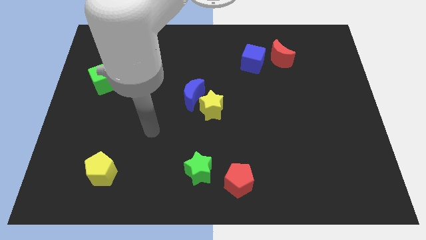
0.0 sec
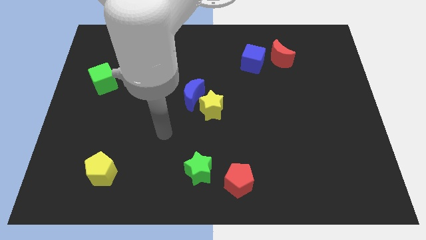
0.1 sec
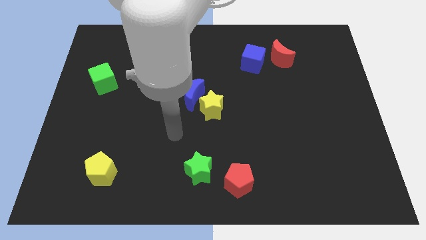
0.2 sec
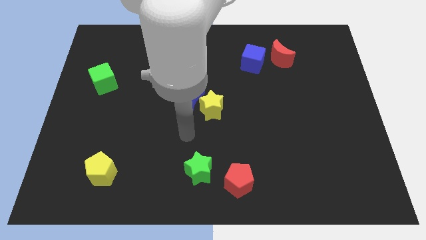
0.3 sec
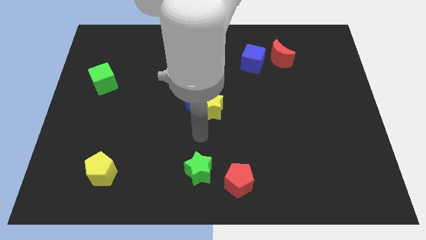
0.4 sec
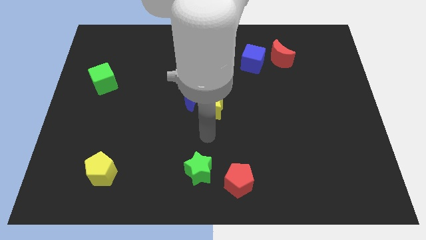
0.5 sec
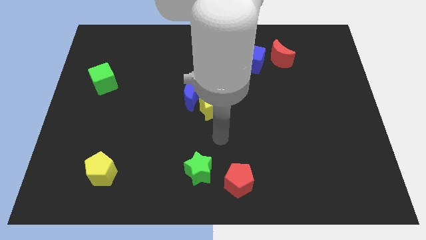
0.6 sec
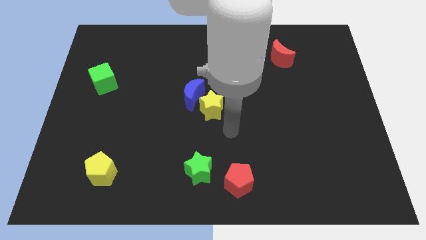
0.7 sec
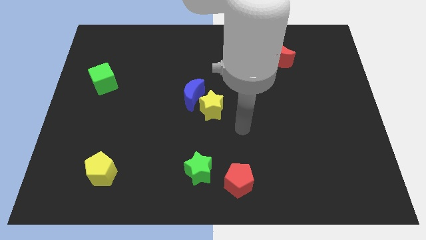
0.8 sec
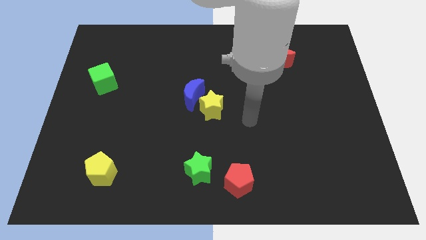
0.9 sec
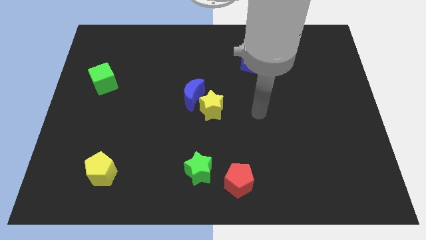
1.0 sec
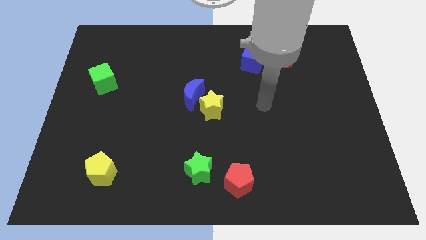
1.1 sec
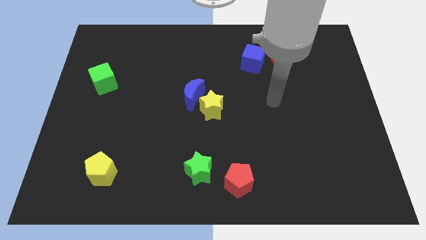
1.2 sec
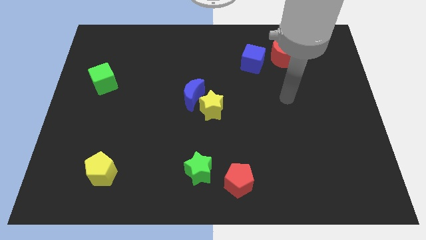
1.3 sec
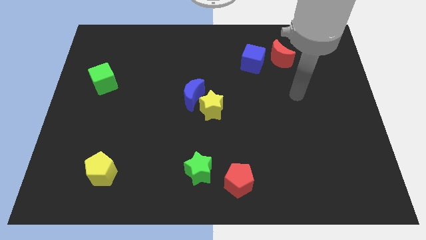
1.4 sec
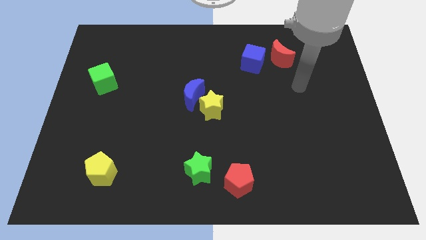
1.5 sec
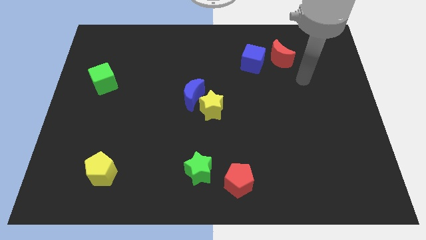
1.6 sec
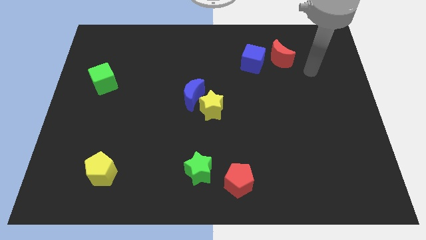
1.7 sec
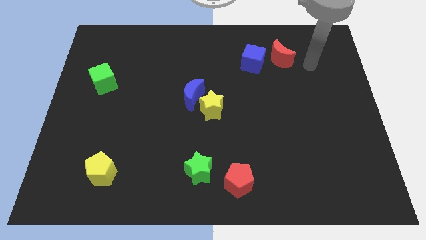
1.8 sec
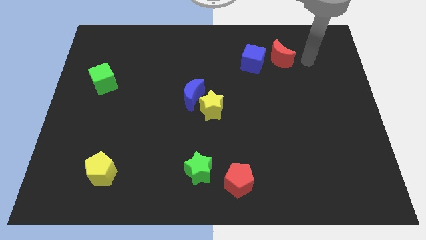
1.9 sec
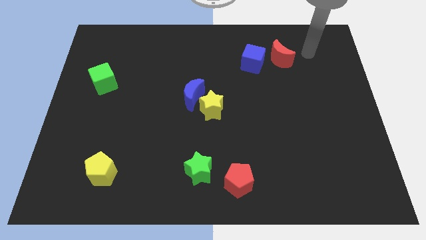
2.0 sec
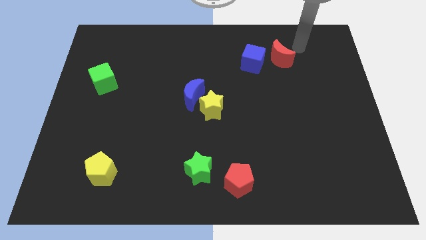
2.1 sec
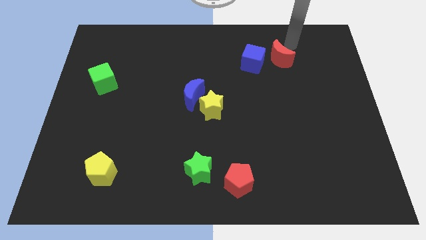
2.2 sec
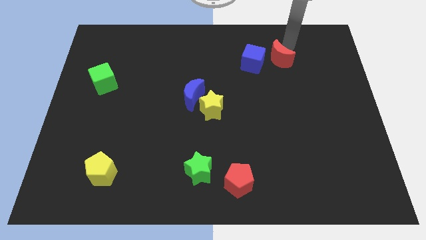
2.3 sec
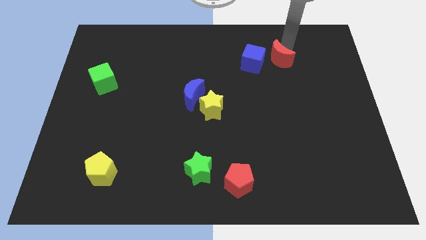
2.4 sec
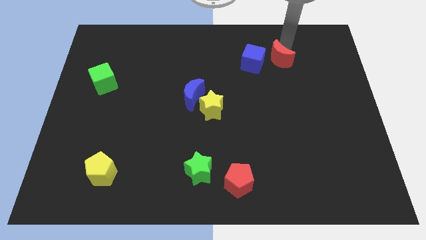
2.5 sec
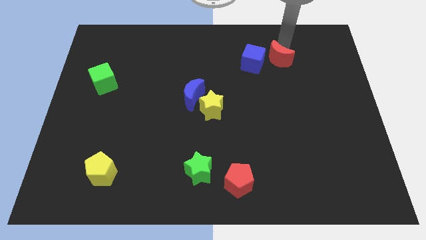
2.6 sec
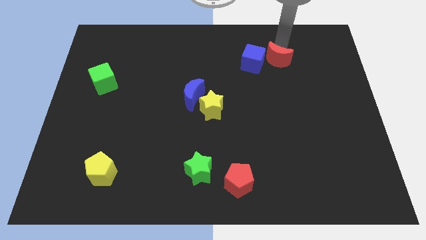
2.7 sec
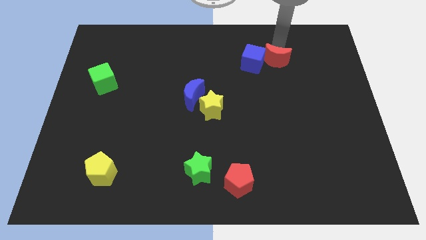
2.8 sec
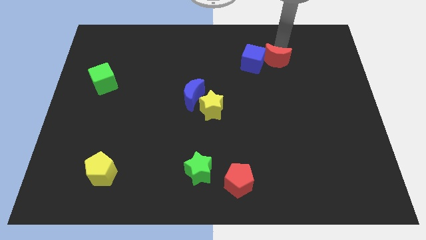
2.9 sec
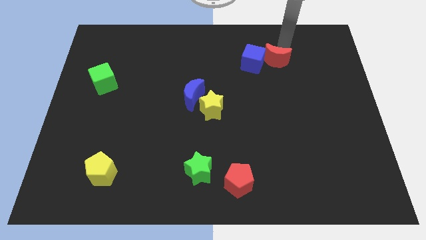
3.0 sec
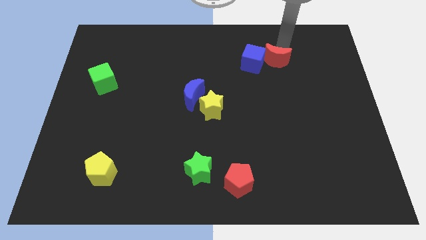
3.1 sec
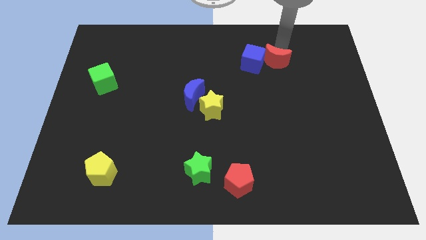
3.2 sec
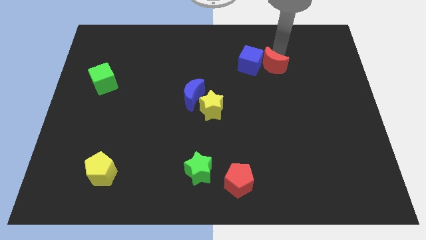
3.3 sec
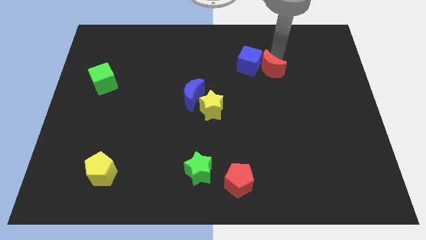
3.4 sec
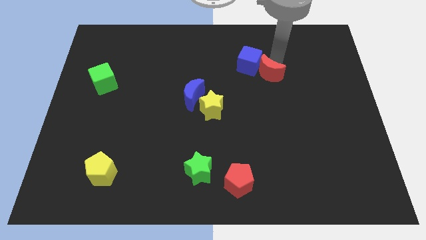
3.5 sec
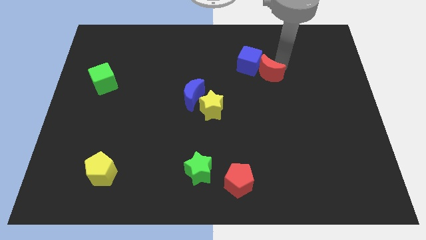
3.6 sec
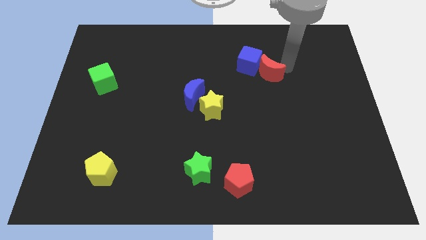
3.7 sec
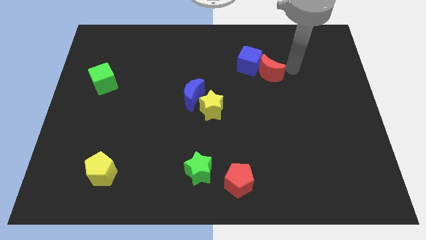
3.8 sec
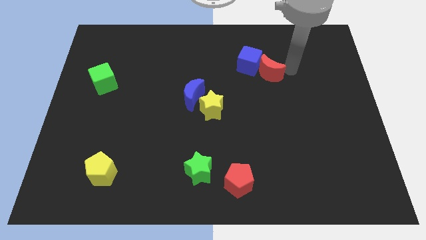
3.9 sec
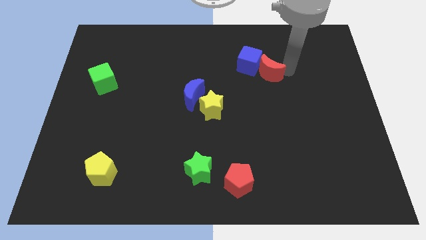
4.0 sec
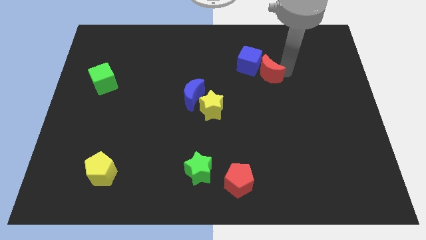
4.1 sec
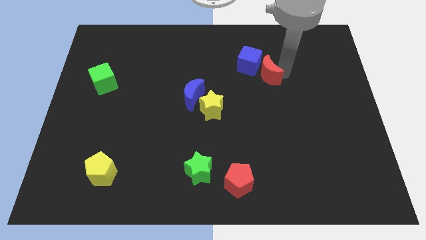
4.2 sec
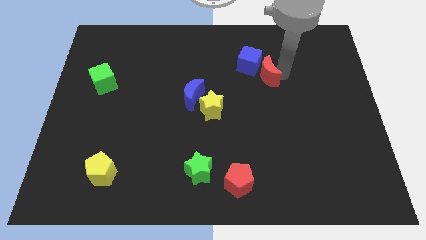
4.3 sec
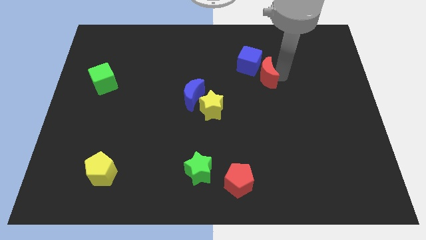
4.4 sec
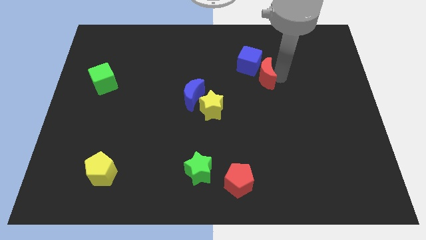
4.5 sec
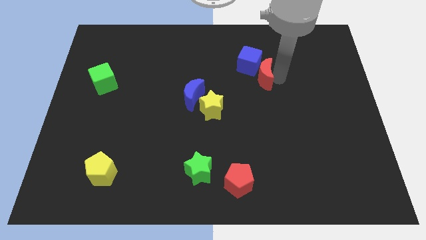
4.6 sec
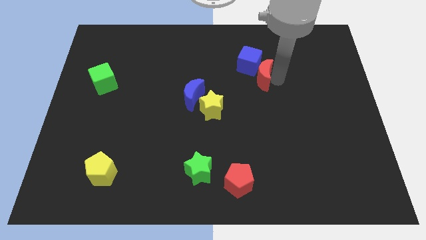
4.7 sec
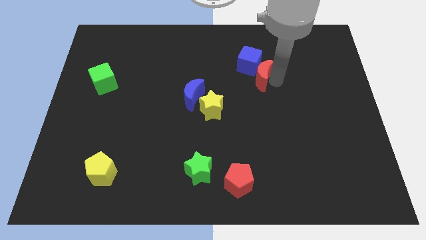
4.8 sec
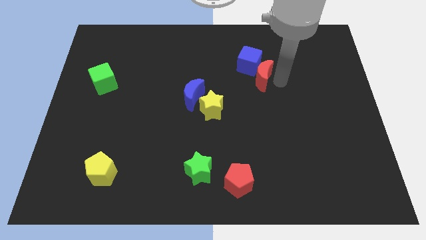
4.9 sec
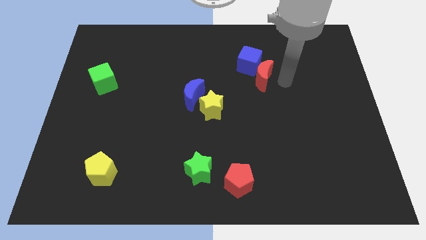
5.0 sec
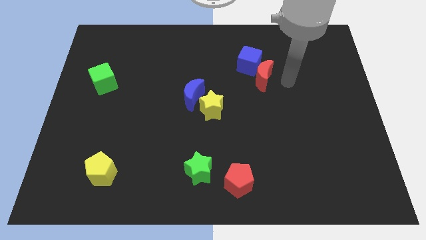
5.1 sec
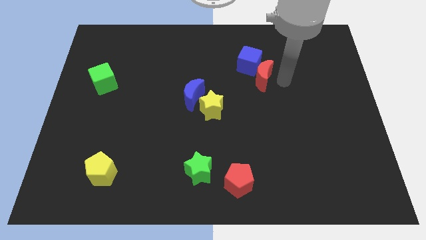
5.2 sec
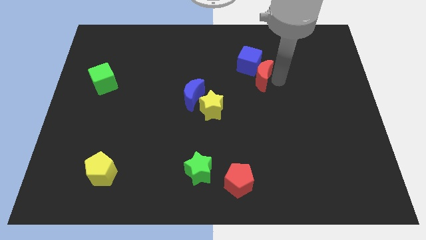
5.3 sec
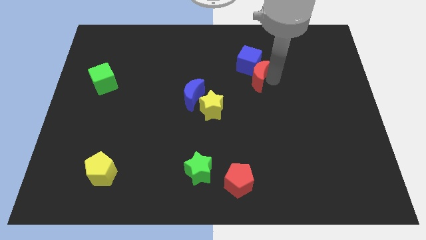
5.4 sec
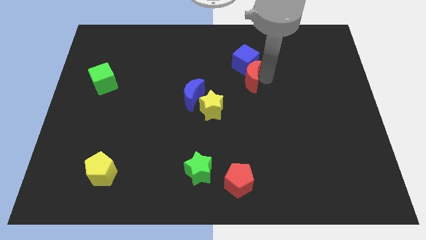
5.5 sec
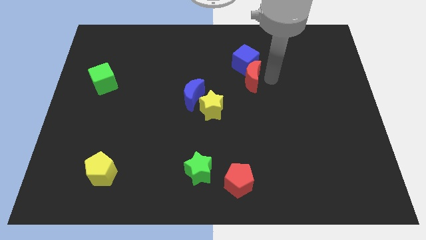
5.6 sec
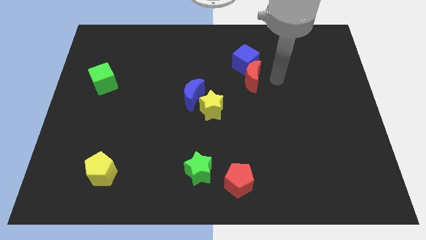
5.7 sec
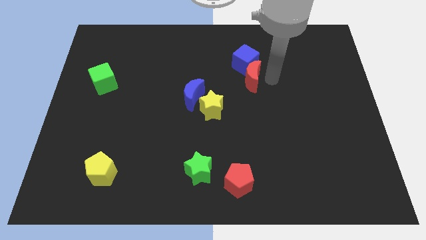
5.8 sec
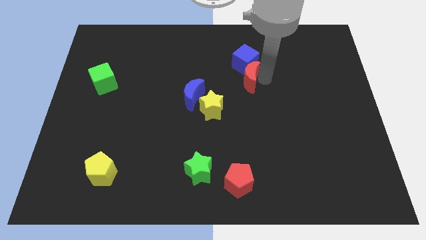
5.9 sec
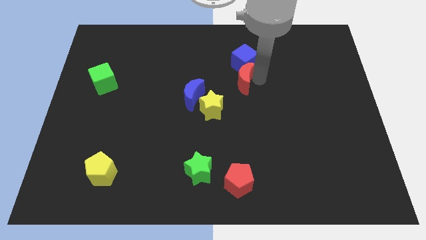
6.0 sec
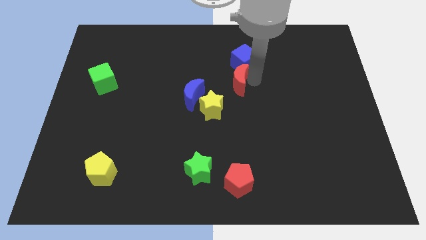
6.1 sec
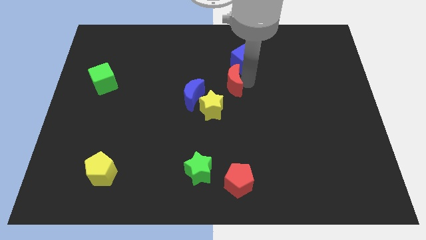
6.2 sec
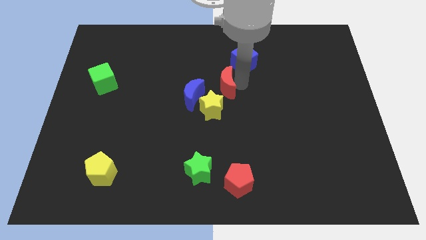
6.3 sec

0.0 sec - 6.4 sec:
put the red moon above the yellow star

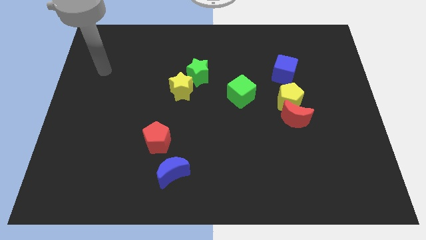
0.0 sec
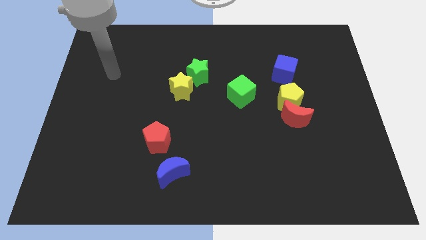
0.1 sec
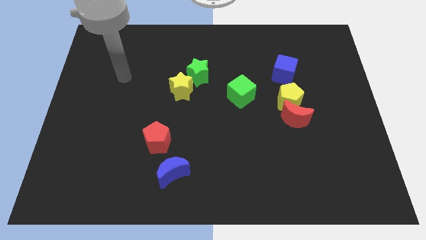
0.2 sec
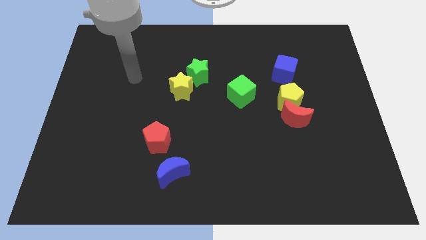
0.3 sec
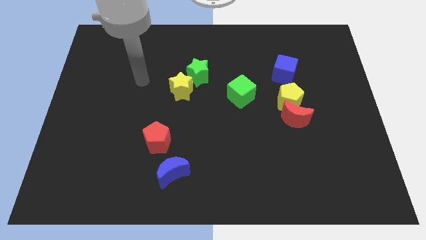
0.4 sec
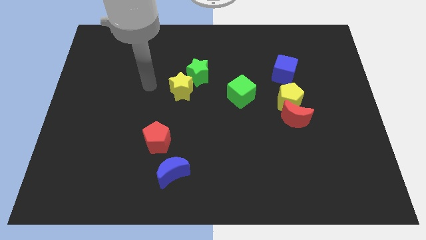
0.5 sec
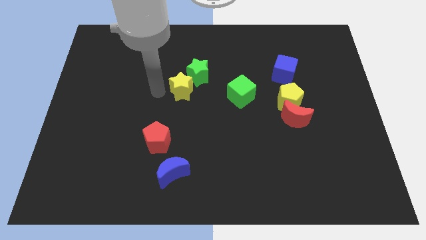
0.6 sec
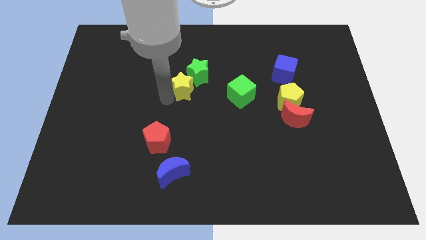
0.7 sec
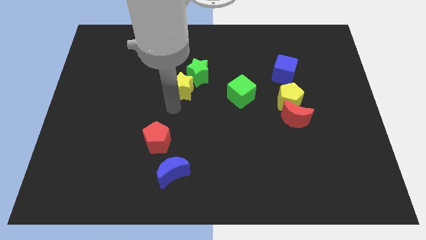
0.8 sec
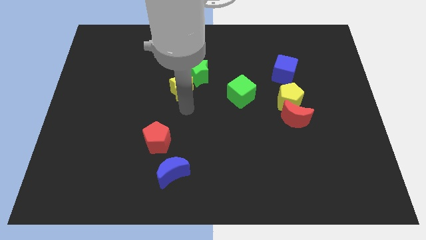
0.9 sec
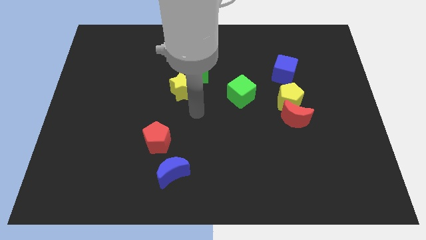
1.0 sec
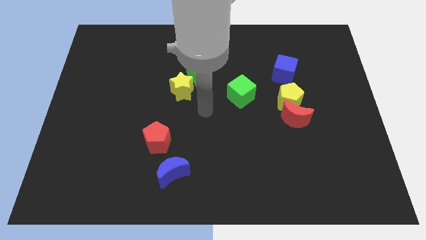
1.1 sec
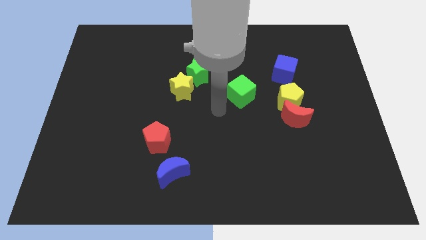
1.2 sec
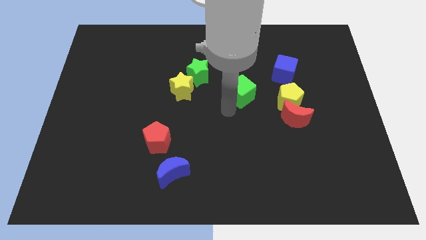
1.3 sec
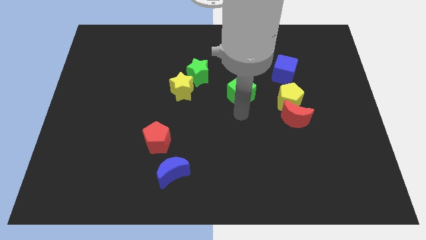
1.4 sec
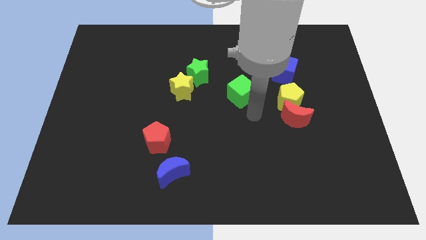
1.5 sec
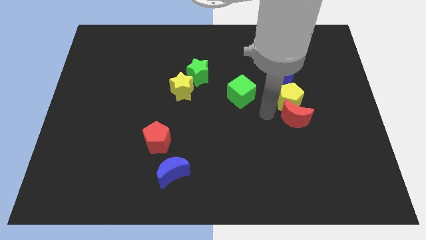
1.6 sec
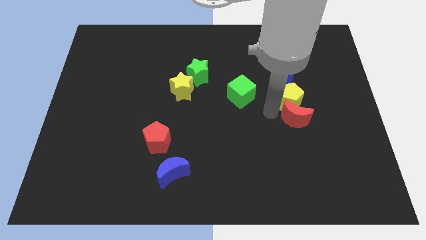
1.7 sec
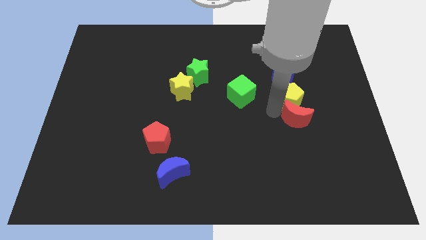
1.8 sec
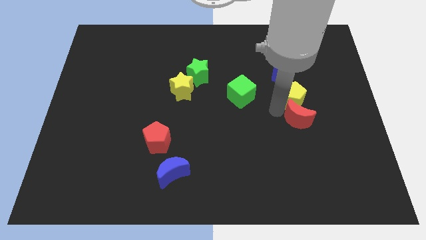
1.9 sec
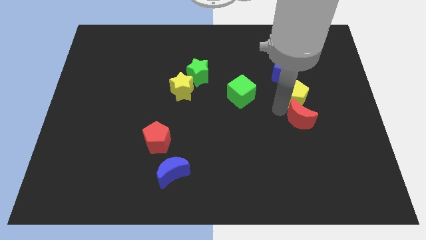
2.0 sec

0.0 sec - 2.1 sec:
push the yellow pentagon diagonally down and to the right of the blue cube
